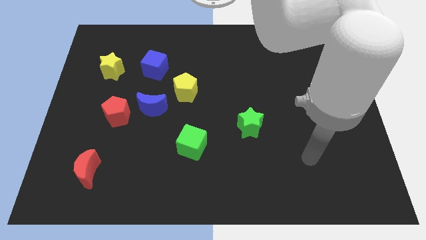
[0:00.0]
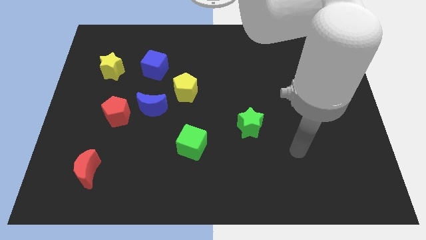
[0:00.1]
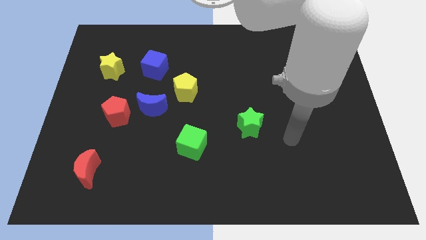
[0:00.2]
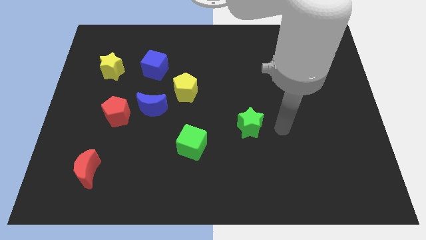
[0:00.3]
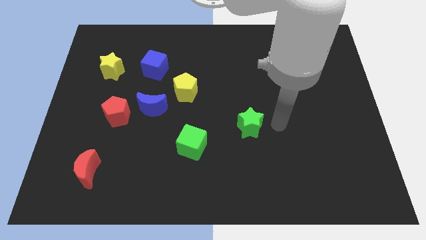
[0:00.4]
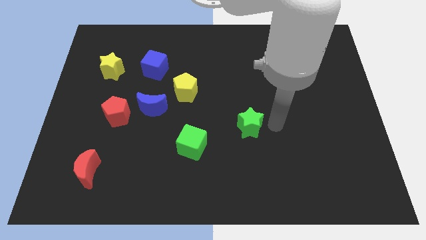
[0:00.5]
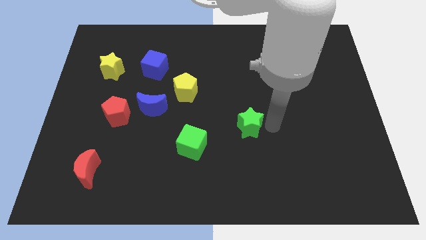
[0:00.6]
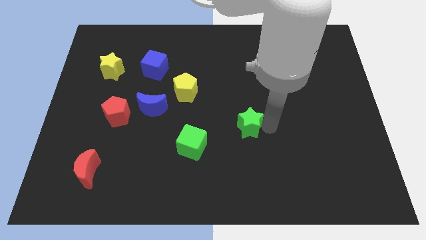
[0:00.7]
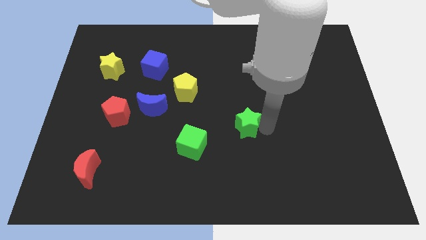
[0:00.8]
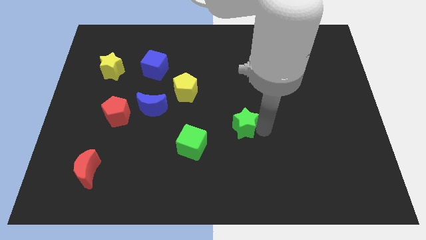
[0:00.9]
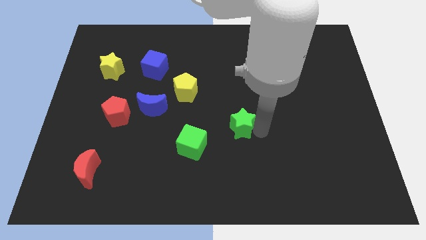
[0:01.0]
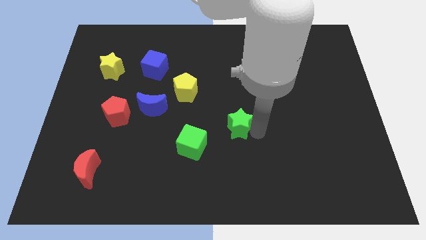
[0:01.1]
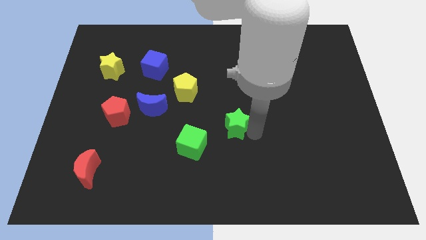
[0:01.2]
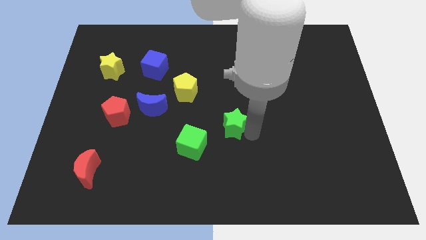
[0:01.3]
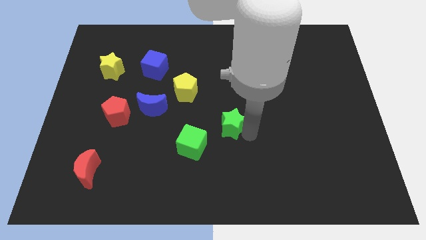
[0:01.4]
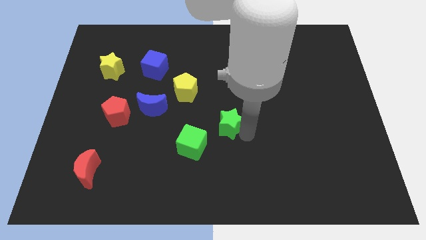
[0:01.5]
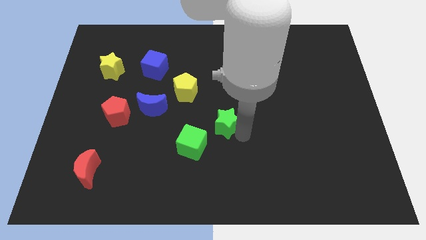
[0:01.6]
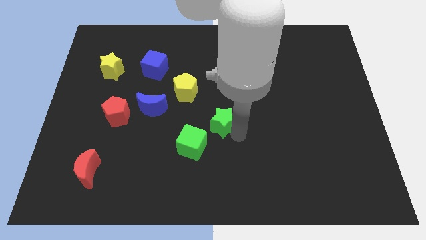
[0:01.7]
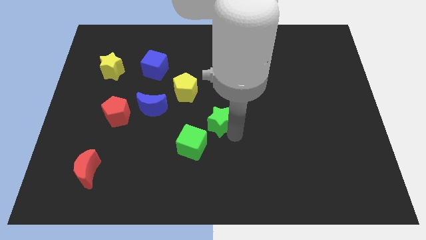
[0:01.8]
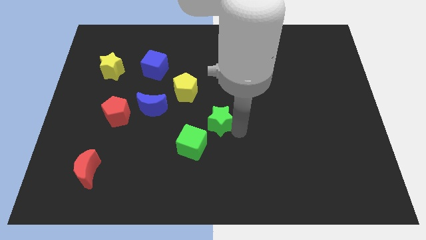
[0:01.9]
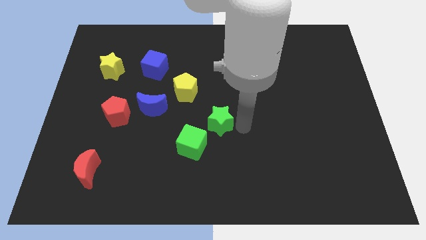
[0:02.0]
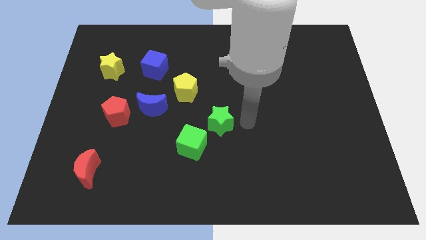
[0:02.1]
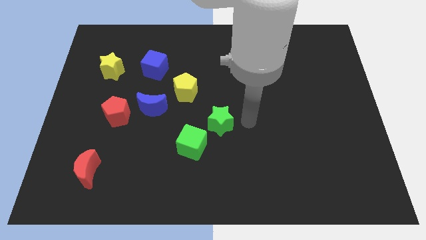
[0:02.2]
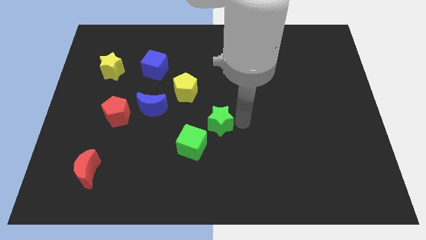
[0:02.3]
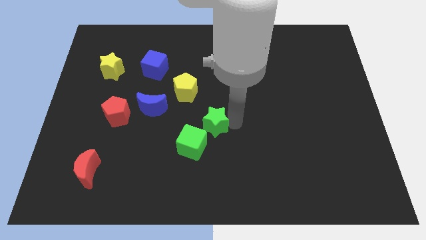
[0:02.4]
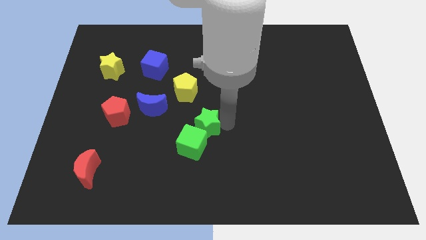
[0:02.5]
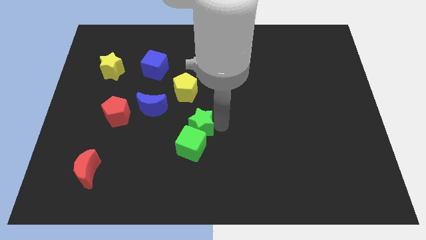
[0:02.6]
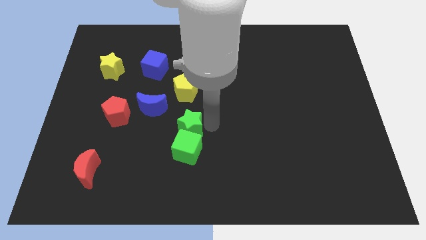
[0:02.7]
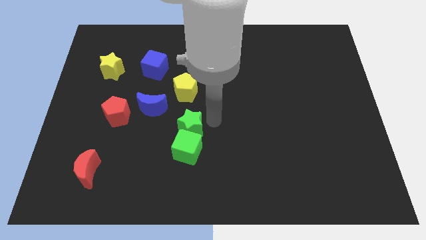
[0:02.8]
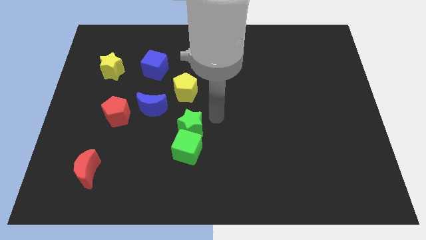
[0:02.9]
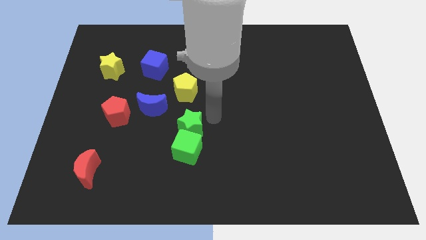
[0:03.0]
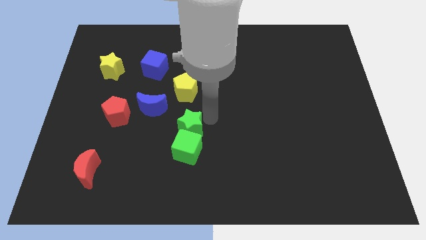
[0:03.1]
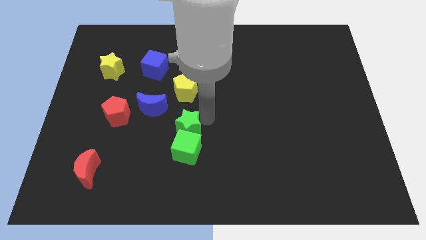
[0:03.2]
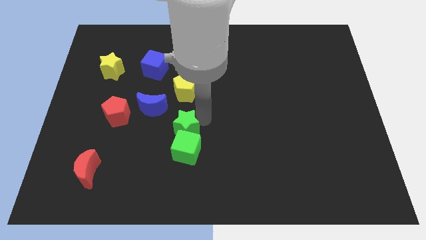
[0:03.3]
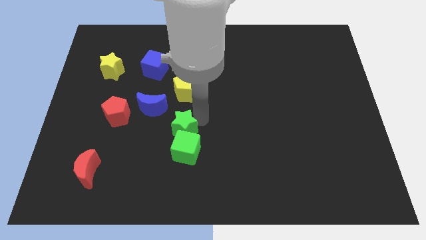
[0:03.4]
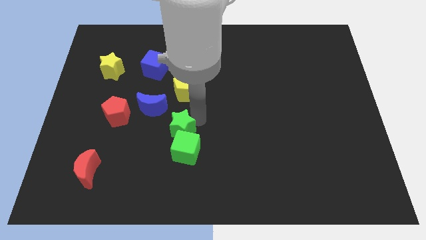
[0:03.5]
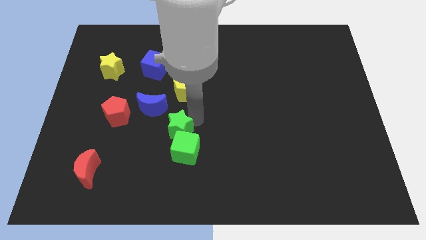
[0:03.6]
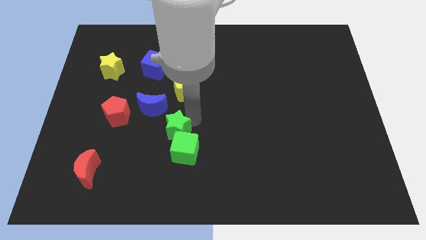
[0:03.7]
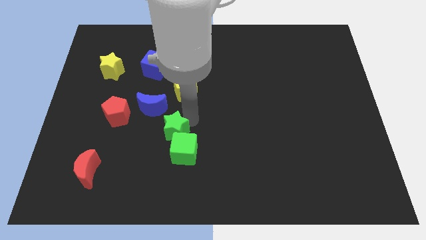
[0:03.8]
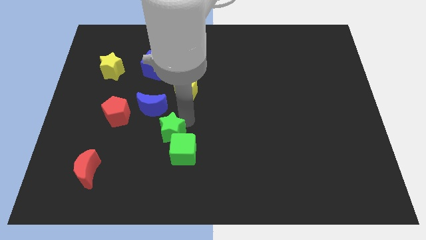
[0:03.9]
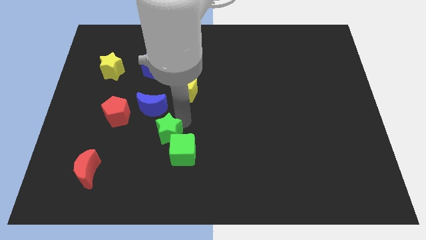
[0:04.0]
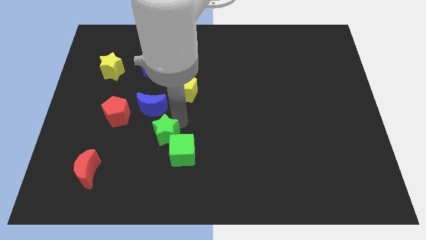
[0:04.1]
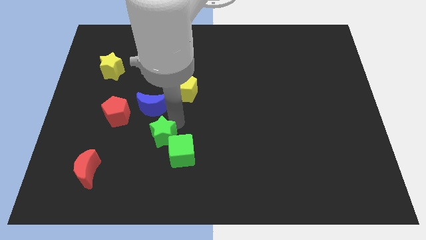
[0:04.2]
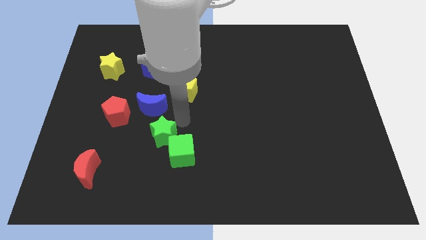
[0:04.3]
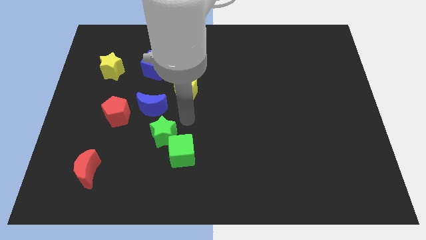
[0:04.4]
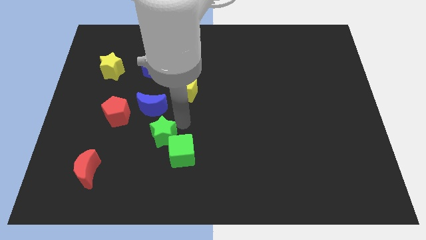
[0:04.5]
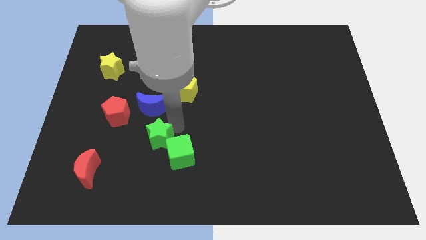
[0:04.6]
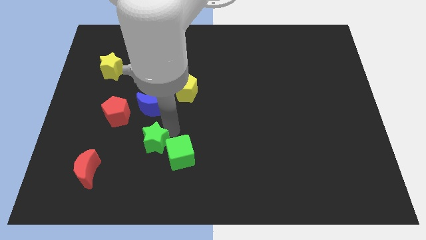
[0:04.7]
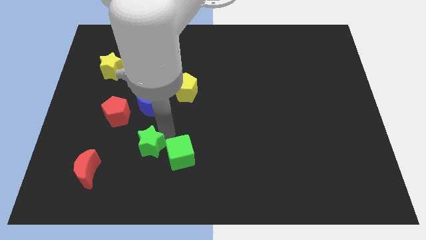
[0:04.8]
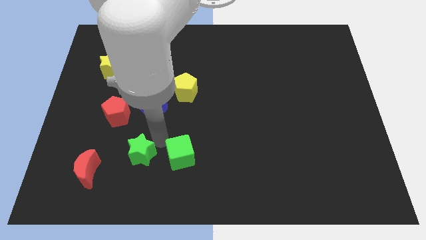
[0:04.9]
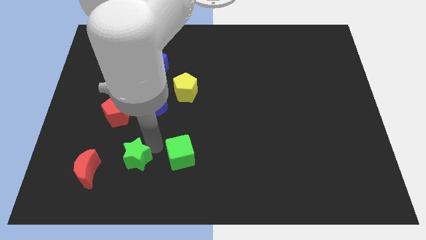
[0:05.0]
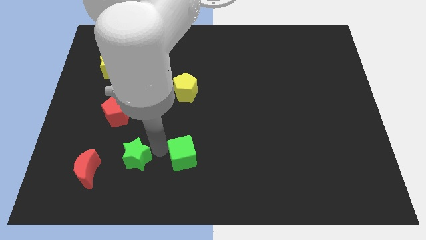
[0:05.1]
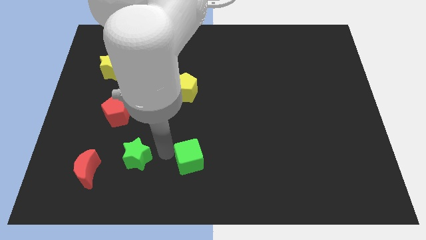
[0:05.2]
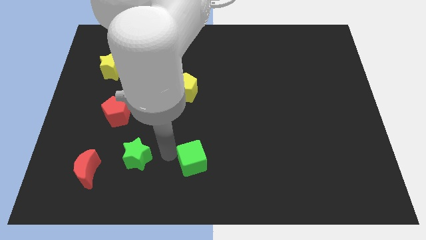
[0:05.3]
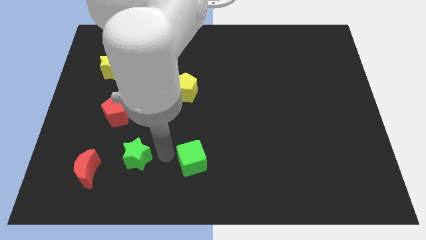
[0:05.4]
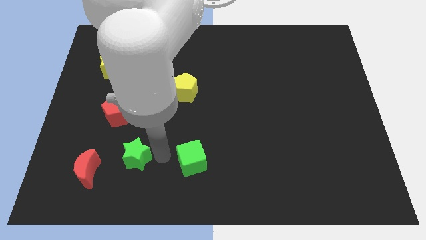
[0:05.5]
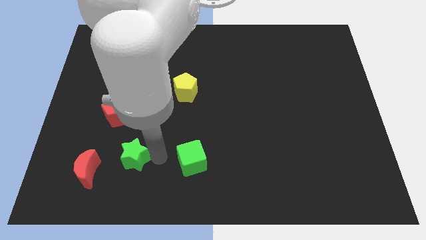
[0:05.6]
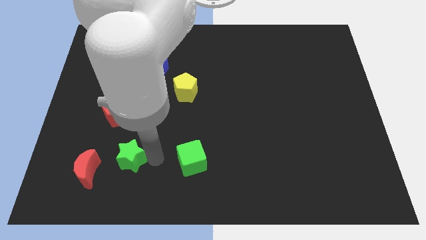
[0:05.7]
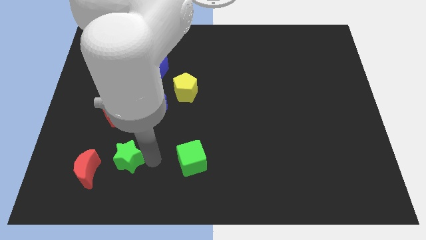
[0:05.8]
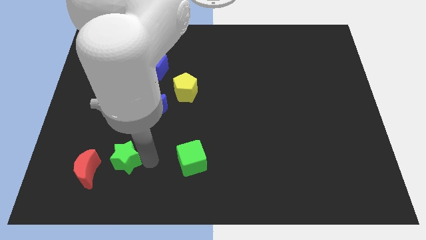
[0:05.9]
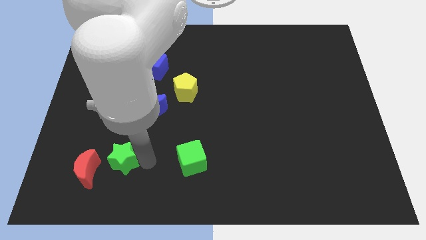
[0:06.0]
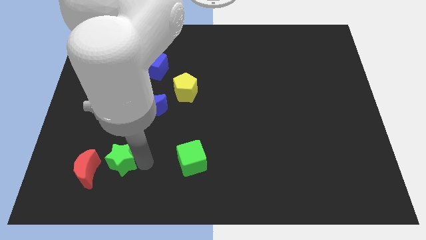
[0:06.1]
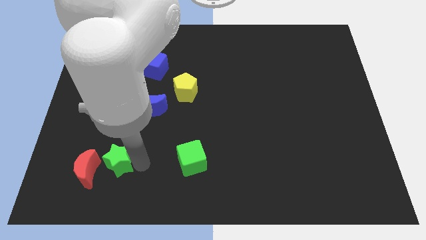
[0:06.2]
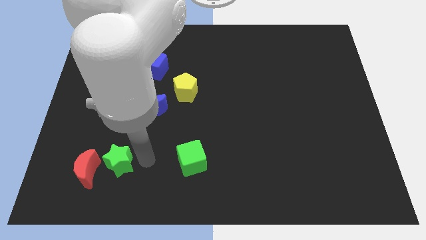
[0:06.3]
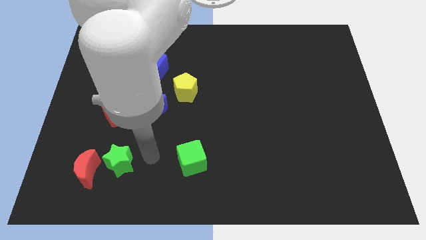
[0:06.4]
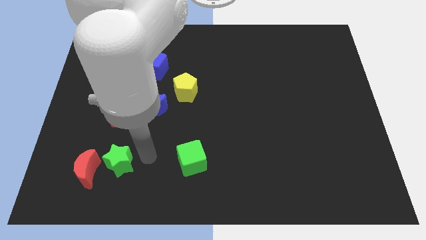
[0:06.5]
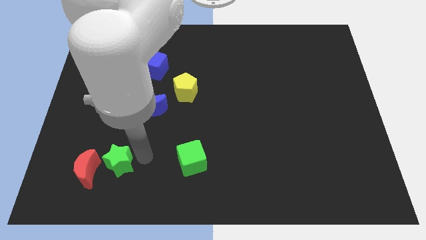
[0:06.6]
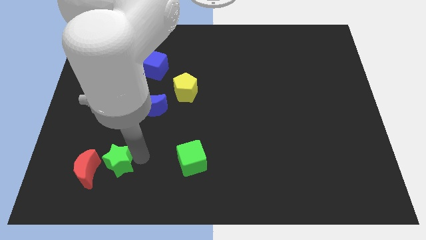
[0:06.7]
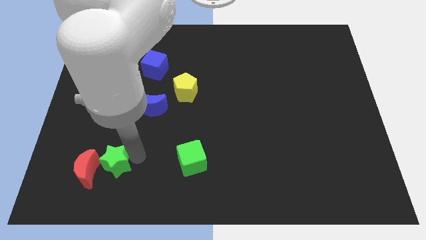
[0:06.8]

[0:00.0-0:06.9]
push the green star to the red moon

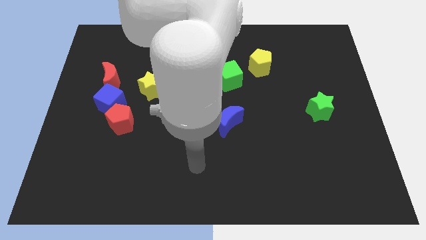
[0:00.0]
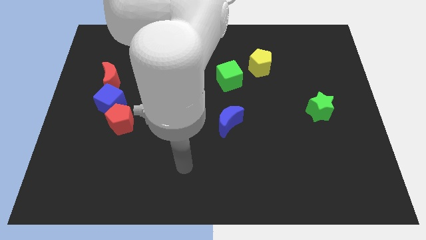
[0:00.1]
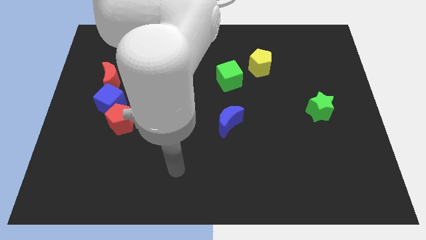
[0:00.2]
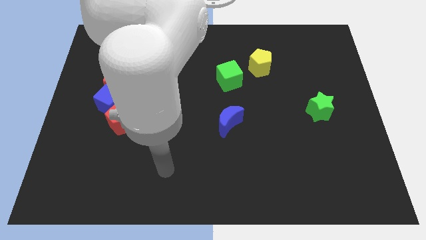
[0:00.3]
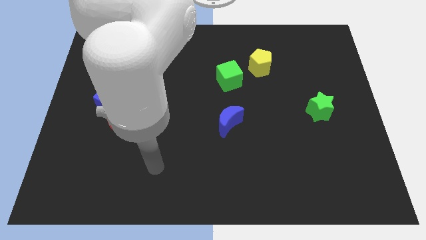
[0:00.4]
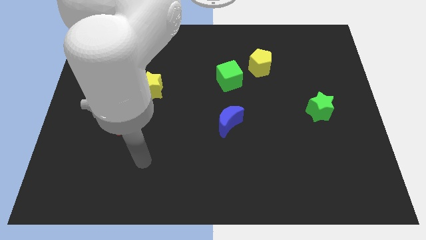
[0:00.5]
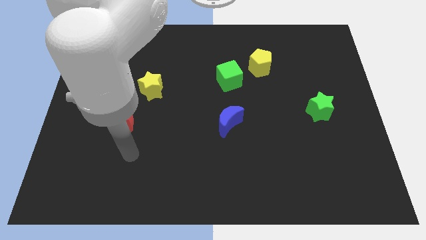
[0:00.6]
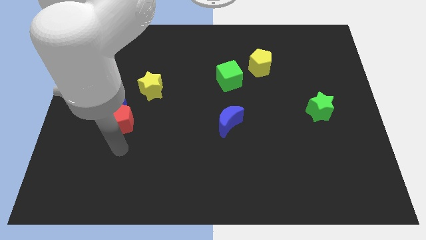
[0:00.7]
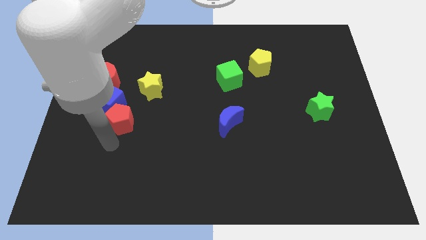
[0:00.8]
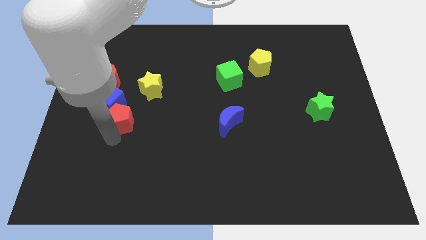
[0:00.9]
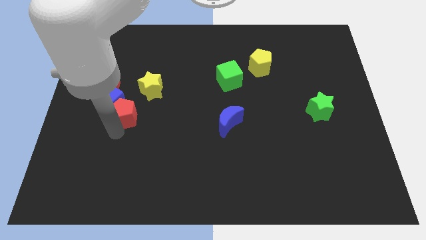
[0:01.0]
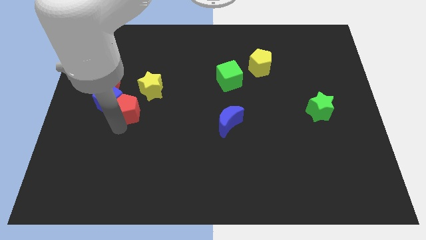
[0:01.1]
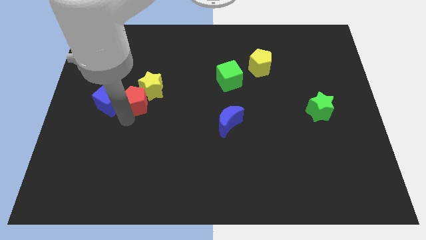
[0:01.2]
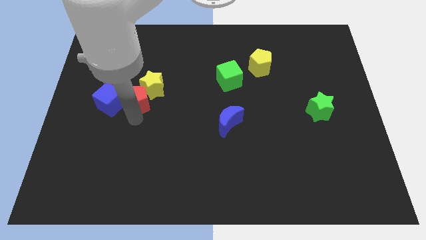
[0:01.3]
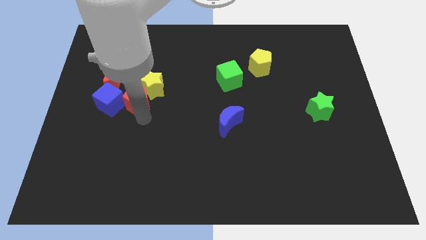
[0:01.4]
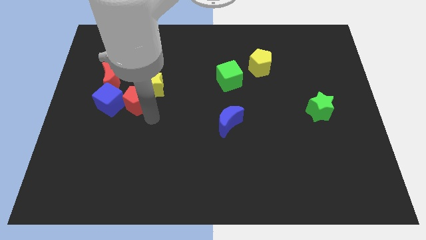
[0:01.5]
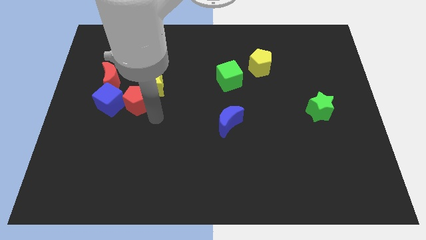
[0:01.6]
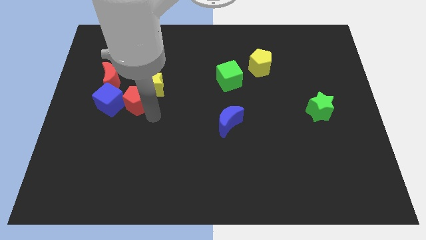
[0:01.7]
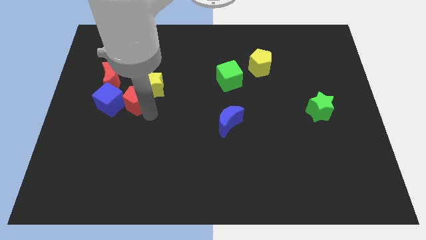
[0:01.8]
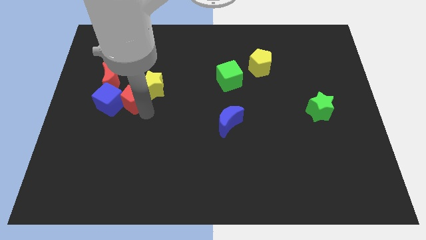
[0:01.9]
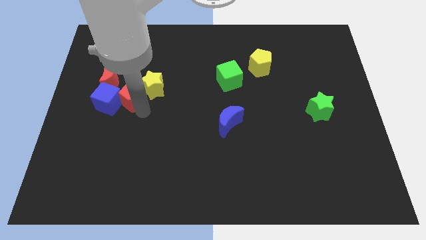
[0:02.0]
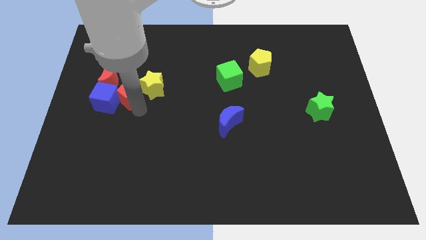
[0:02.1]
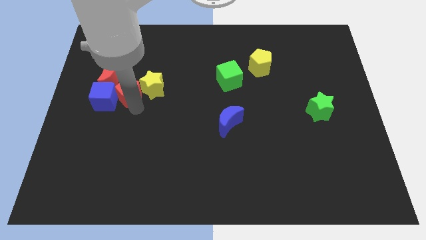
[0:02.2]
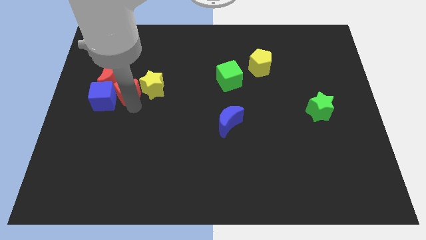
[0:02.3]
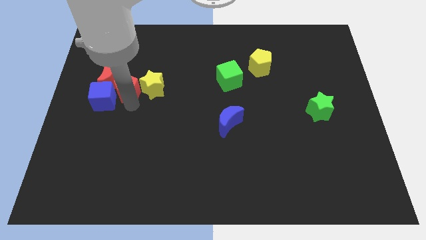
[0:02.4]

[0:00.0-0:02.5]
push the red pentagon towards the red moon
